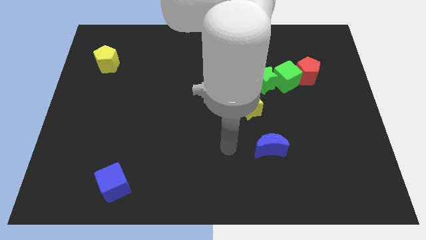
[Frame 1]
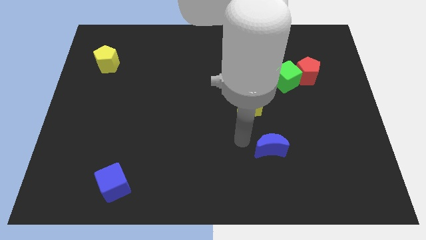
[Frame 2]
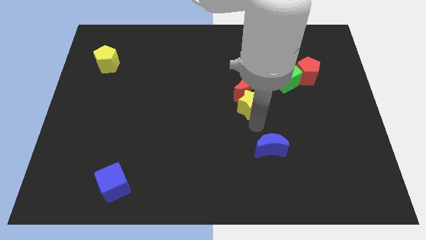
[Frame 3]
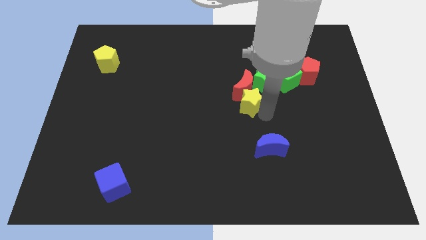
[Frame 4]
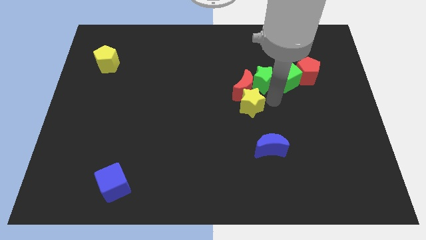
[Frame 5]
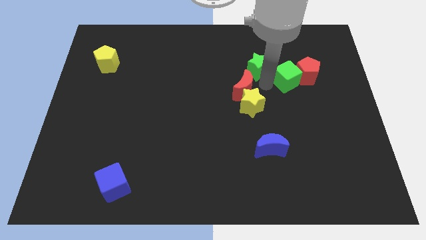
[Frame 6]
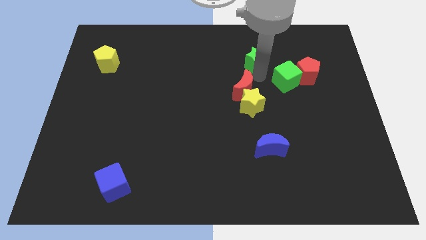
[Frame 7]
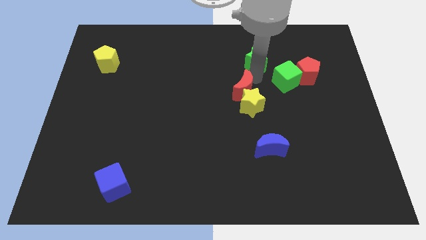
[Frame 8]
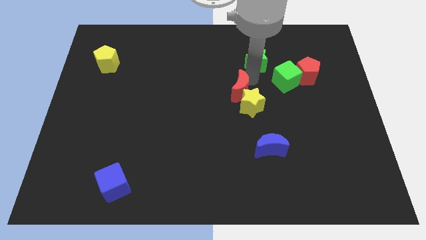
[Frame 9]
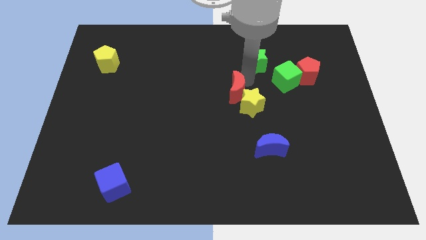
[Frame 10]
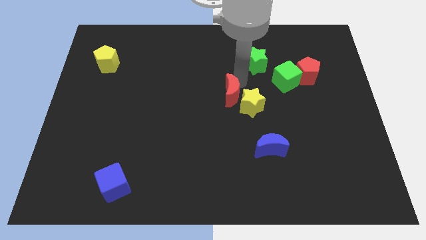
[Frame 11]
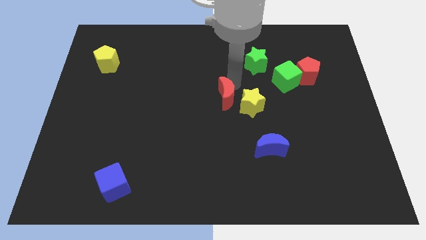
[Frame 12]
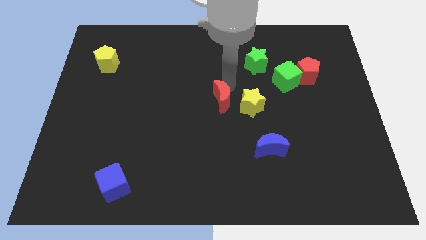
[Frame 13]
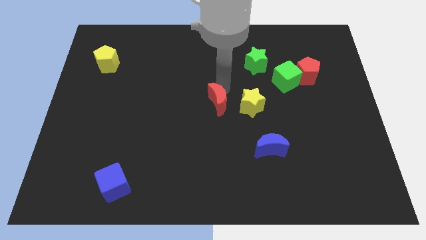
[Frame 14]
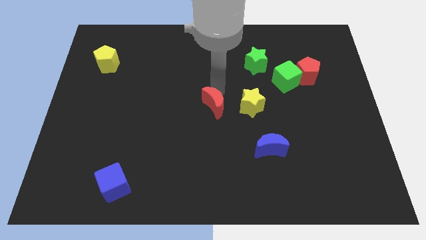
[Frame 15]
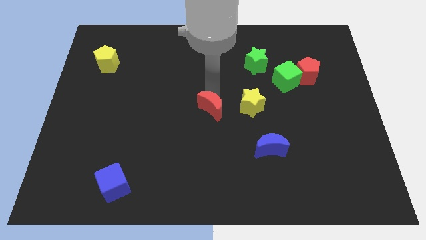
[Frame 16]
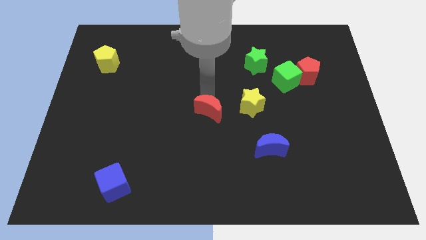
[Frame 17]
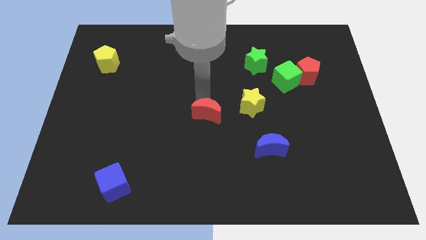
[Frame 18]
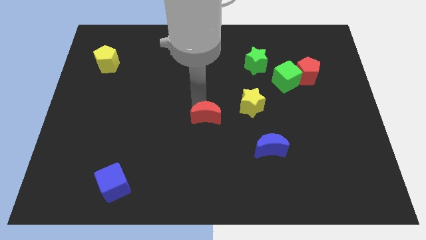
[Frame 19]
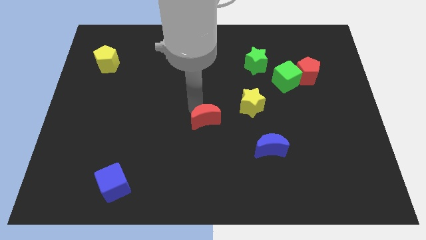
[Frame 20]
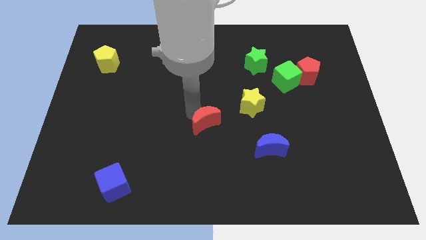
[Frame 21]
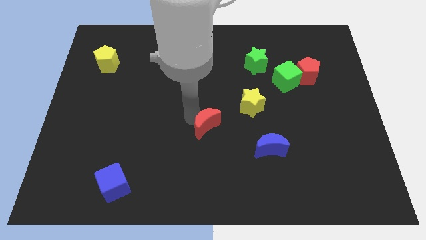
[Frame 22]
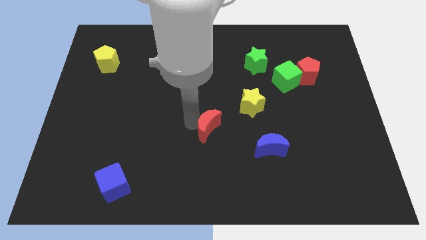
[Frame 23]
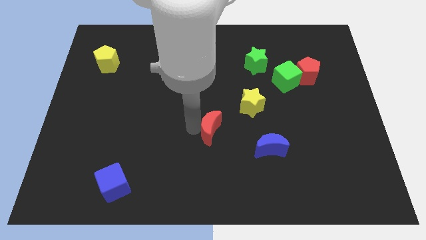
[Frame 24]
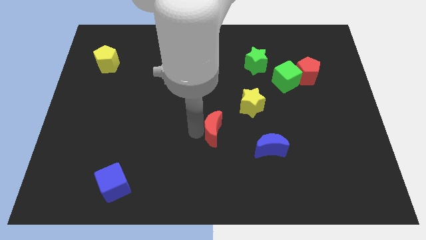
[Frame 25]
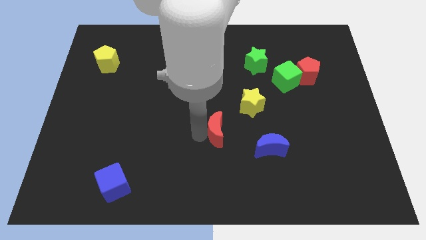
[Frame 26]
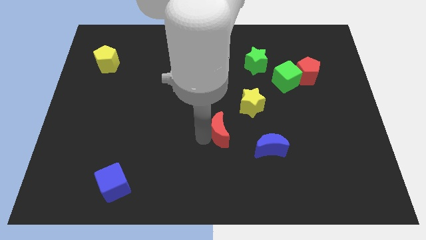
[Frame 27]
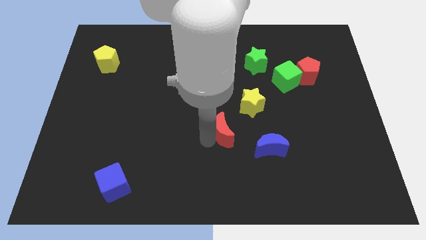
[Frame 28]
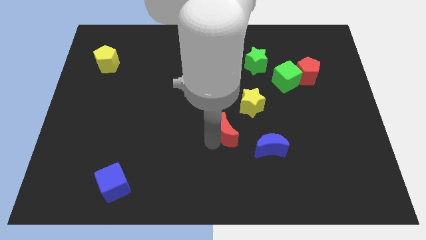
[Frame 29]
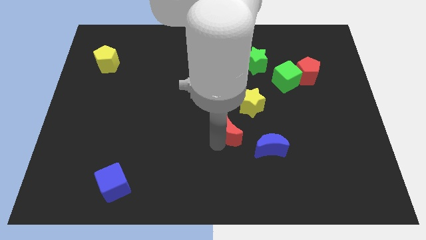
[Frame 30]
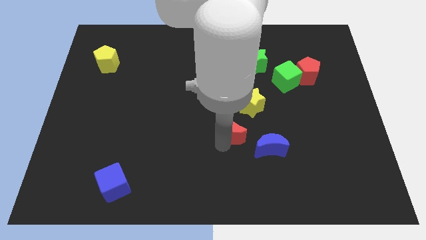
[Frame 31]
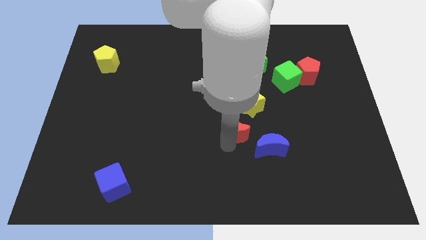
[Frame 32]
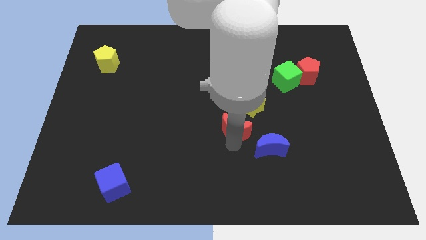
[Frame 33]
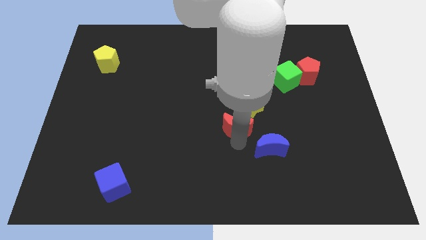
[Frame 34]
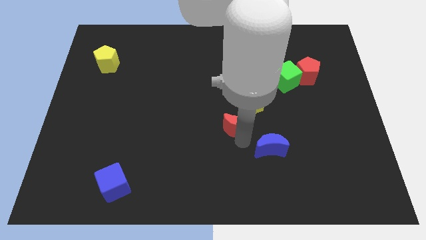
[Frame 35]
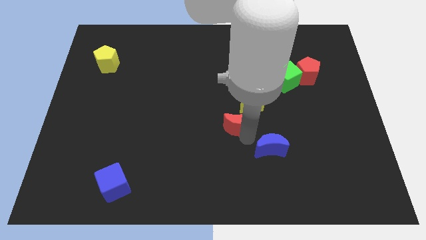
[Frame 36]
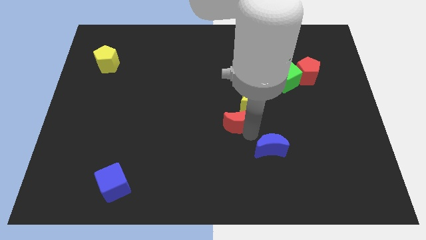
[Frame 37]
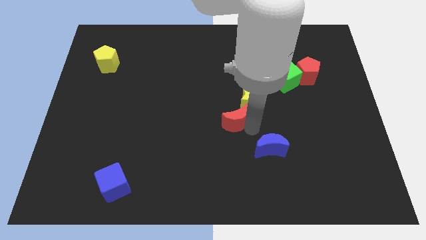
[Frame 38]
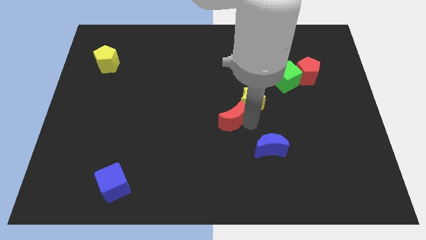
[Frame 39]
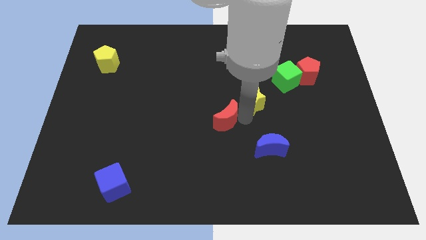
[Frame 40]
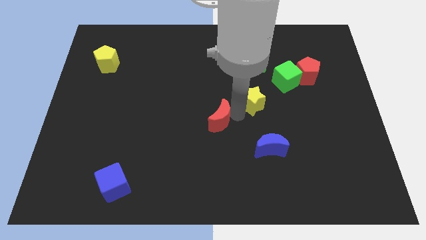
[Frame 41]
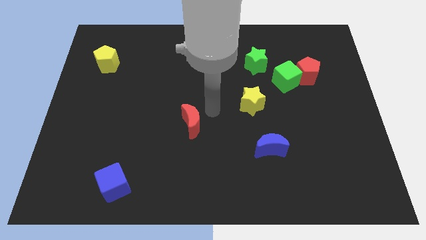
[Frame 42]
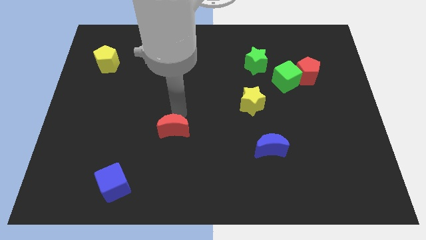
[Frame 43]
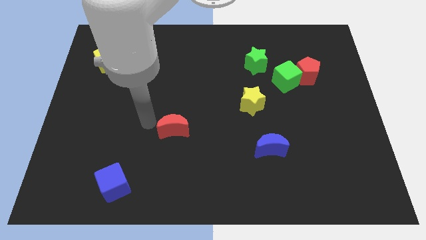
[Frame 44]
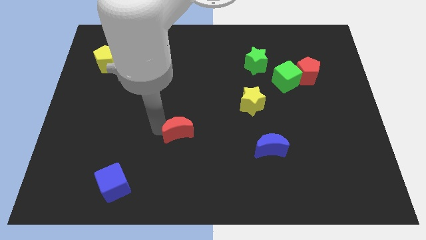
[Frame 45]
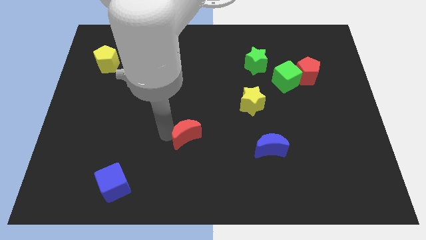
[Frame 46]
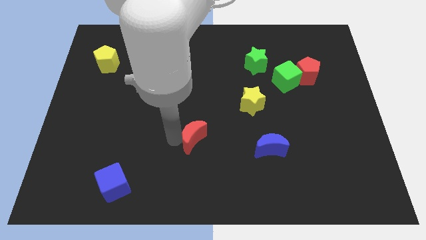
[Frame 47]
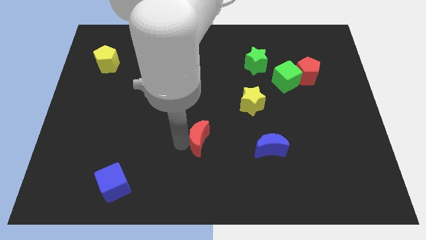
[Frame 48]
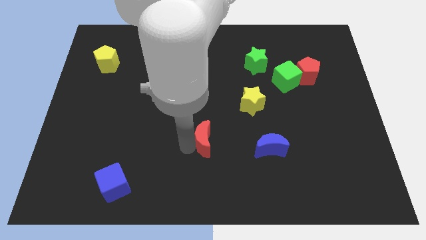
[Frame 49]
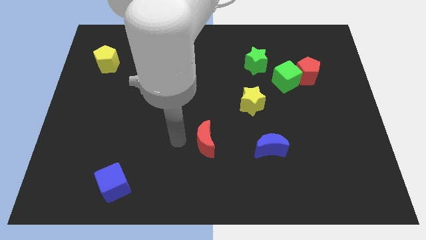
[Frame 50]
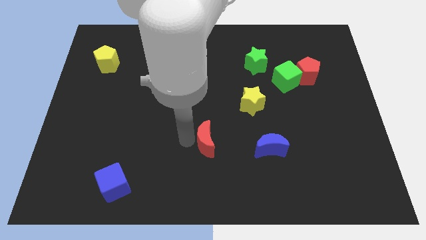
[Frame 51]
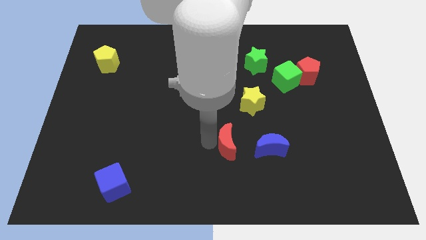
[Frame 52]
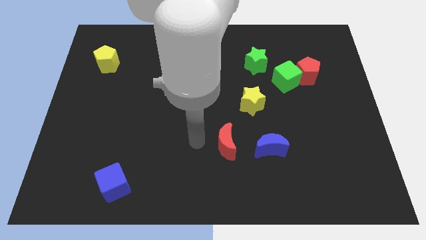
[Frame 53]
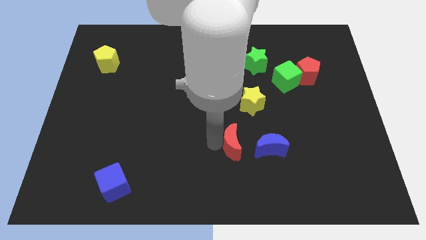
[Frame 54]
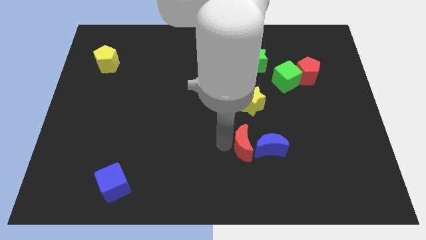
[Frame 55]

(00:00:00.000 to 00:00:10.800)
push the red moon to the blue moon

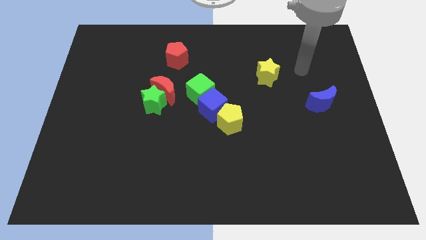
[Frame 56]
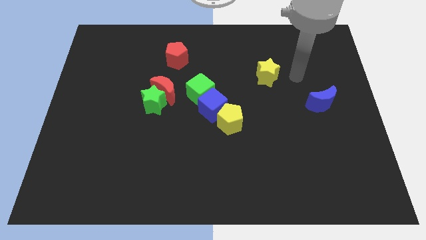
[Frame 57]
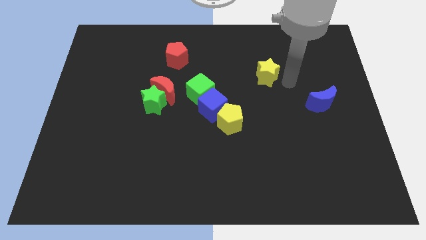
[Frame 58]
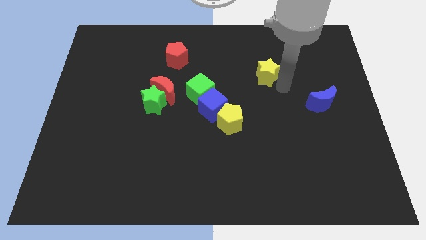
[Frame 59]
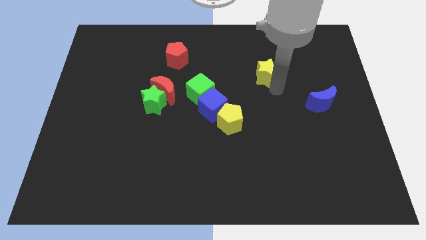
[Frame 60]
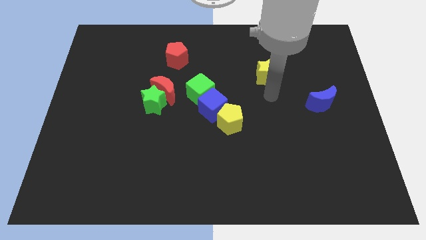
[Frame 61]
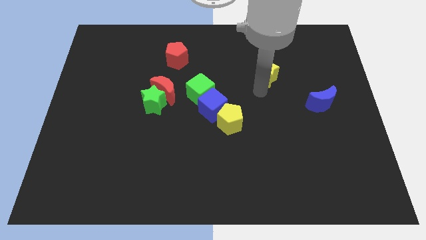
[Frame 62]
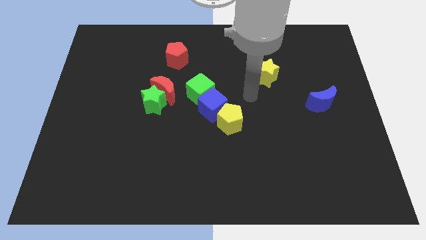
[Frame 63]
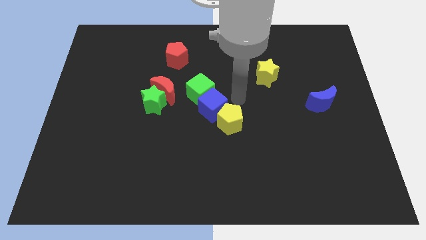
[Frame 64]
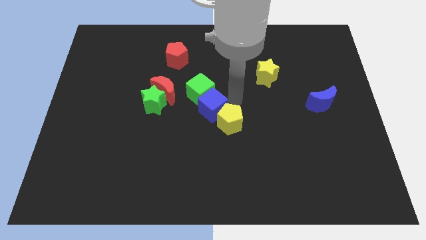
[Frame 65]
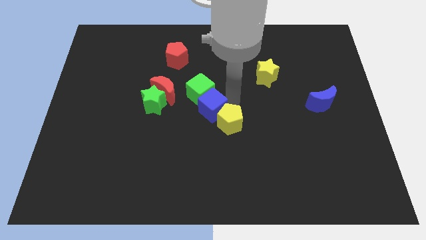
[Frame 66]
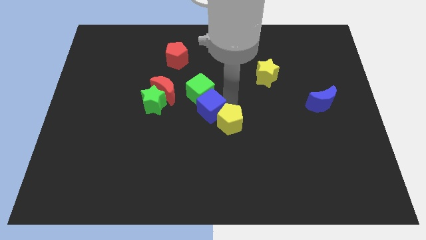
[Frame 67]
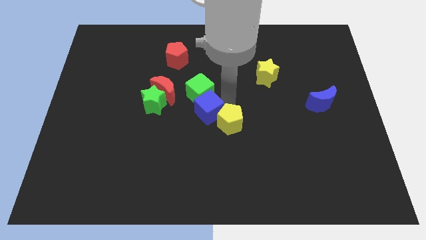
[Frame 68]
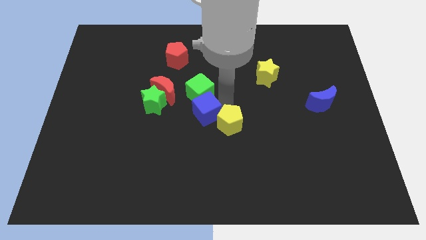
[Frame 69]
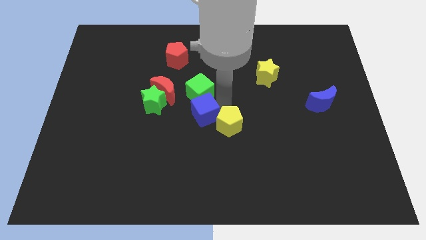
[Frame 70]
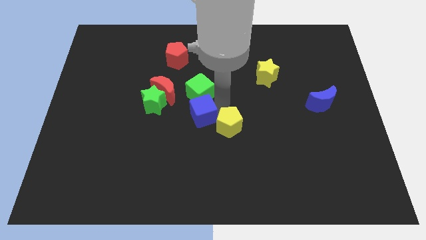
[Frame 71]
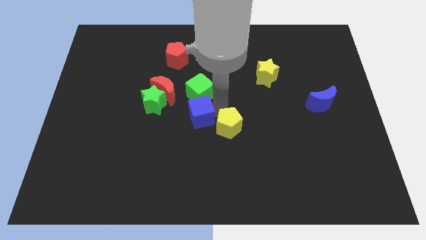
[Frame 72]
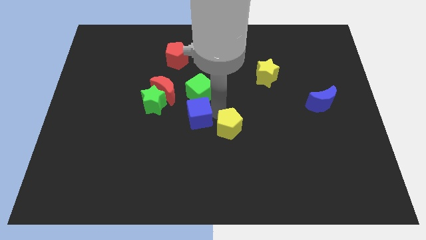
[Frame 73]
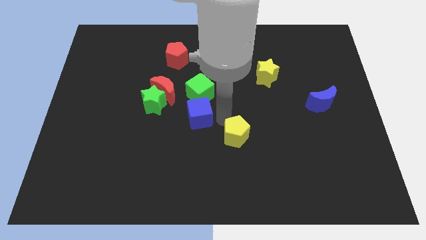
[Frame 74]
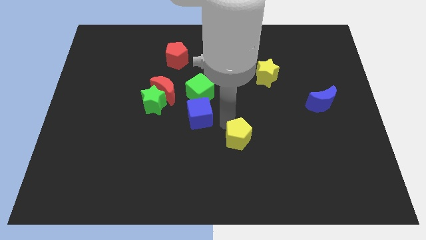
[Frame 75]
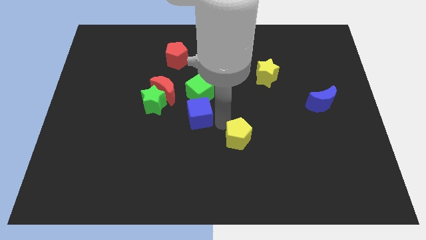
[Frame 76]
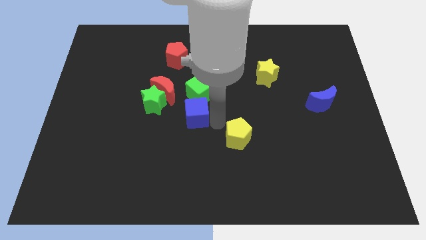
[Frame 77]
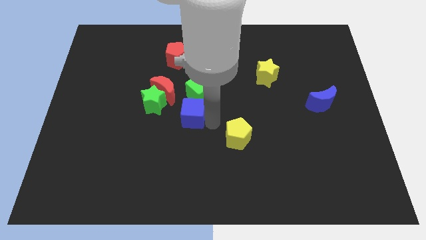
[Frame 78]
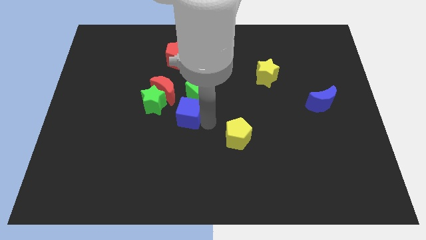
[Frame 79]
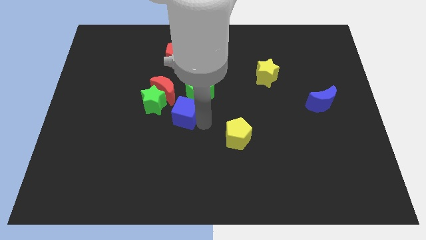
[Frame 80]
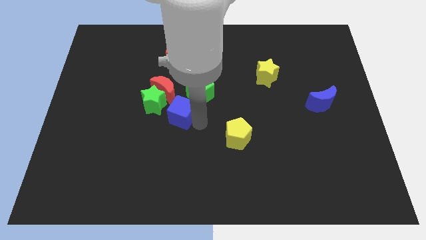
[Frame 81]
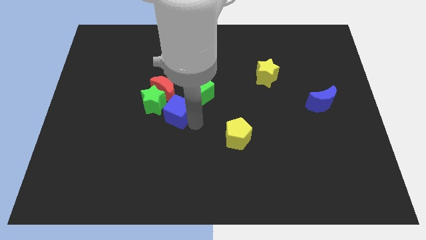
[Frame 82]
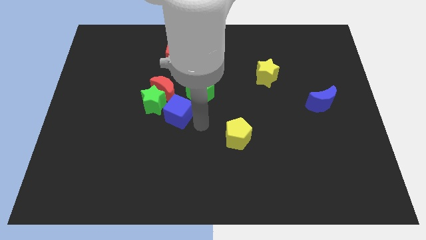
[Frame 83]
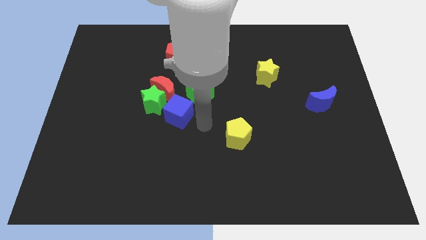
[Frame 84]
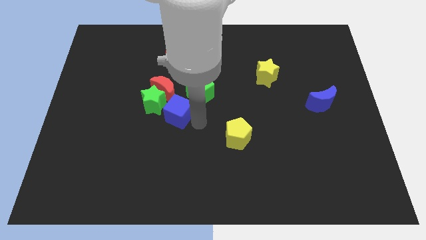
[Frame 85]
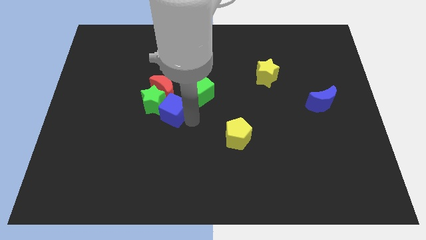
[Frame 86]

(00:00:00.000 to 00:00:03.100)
move the blue cube to the green star
